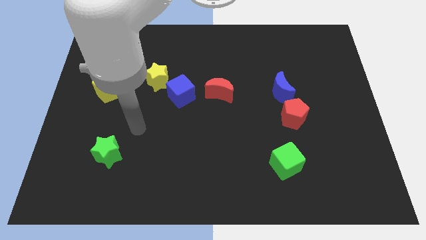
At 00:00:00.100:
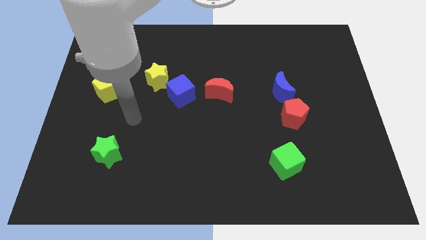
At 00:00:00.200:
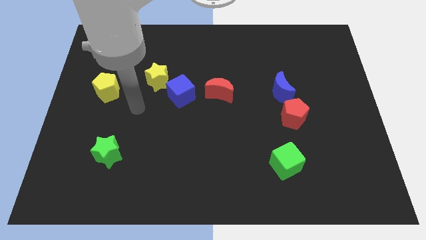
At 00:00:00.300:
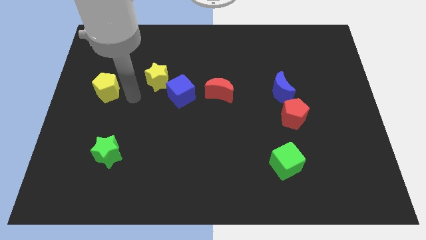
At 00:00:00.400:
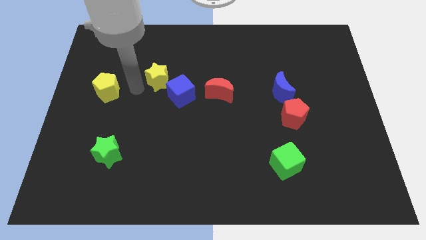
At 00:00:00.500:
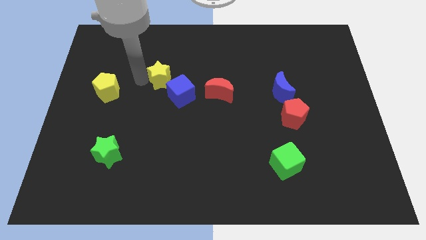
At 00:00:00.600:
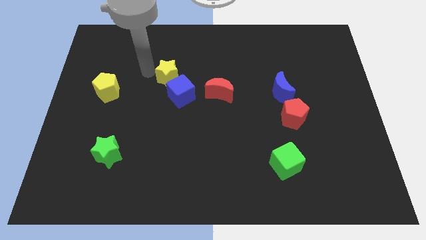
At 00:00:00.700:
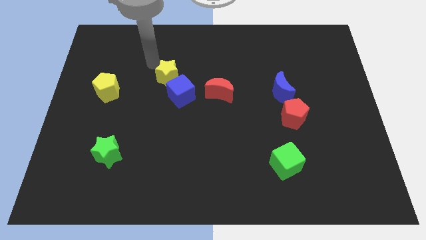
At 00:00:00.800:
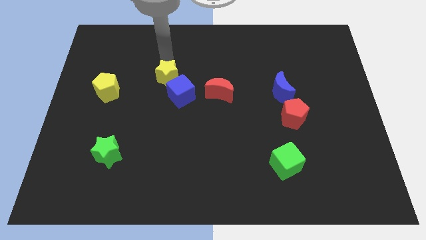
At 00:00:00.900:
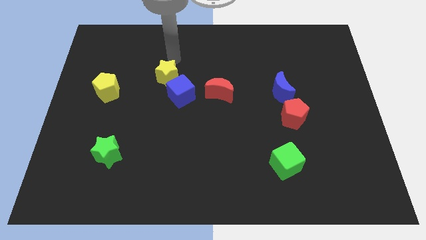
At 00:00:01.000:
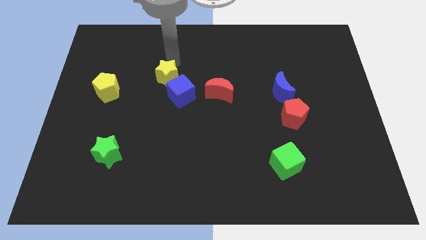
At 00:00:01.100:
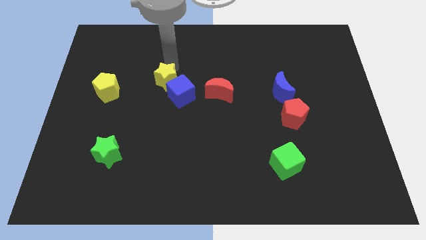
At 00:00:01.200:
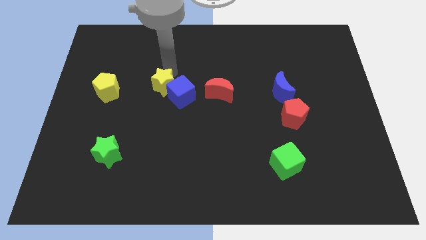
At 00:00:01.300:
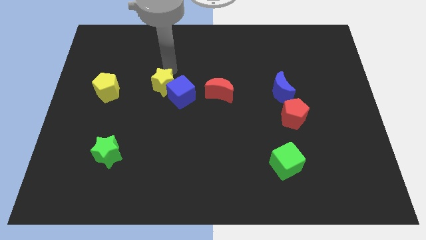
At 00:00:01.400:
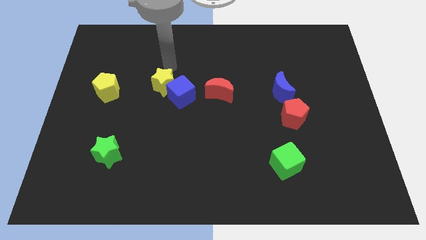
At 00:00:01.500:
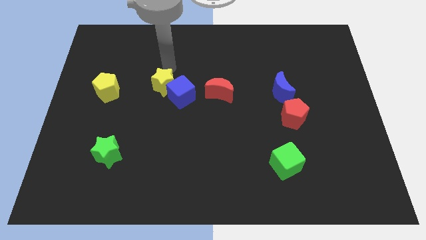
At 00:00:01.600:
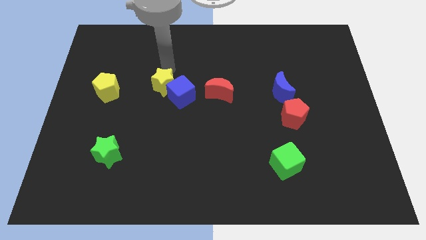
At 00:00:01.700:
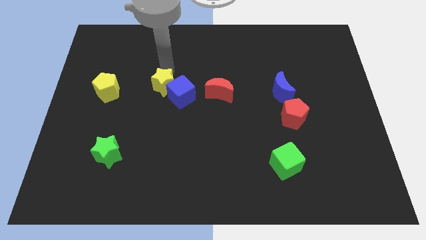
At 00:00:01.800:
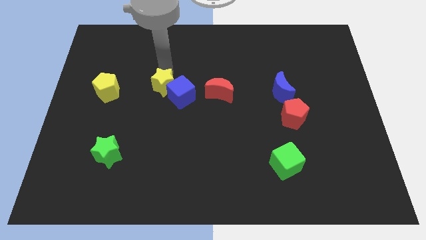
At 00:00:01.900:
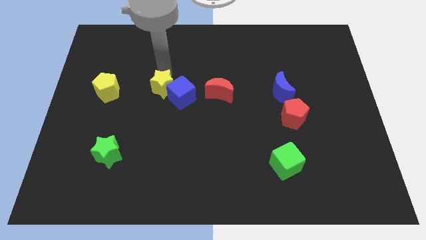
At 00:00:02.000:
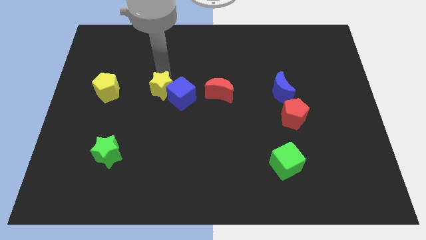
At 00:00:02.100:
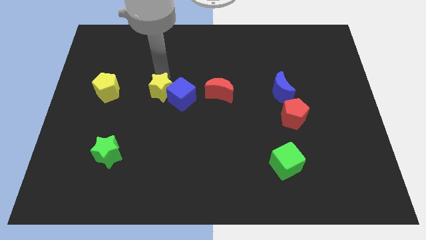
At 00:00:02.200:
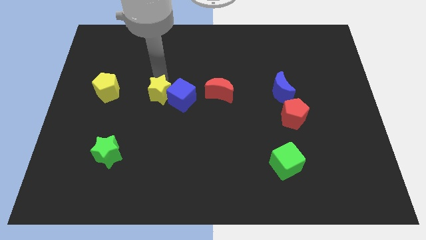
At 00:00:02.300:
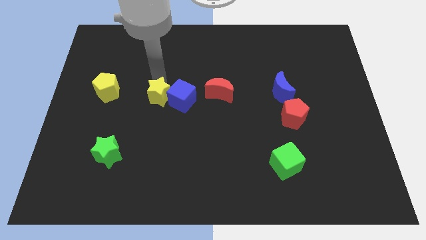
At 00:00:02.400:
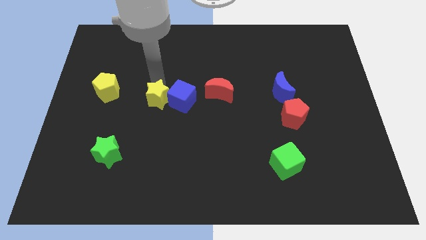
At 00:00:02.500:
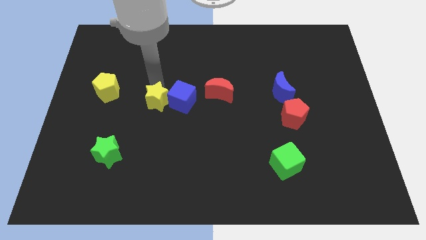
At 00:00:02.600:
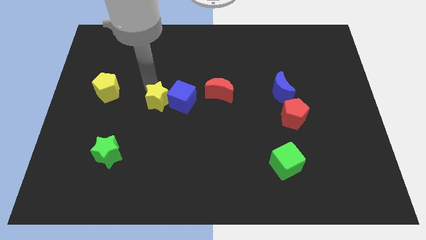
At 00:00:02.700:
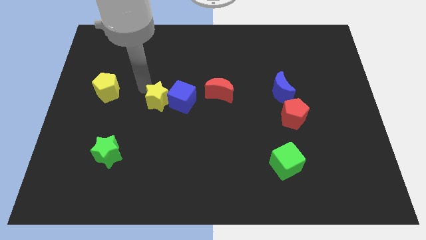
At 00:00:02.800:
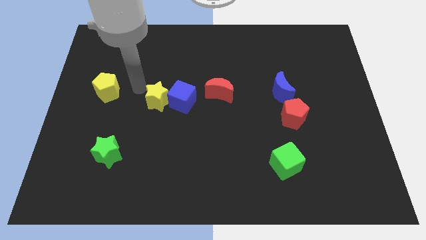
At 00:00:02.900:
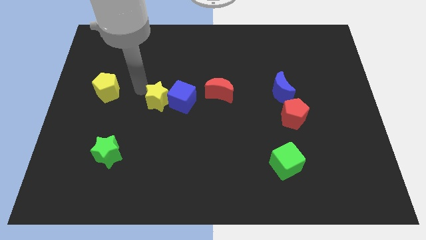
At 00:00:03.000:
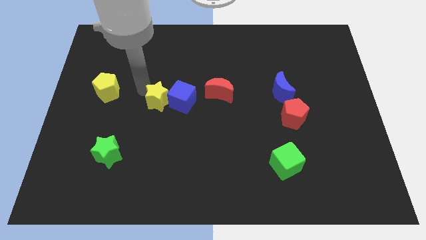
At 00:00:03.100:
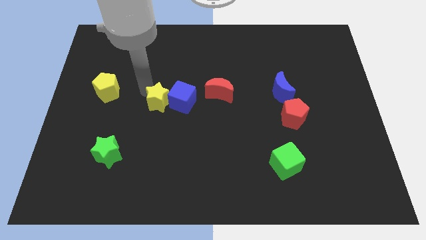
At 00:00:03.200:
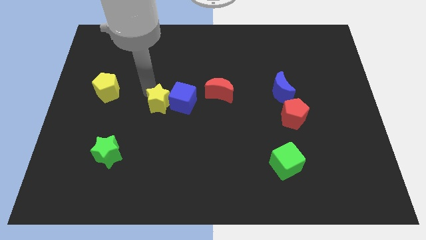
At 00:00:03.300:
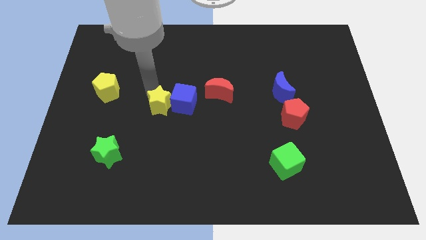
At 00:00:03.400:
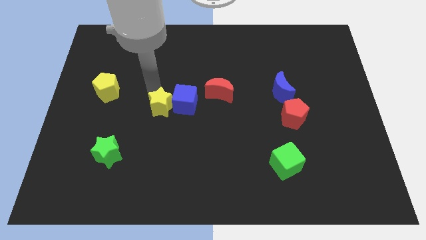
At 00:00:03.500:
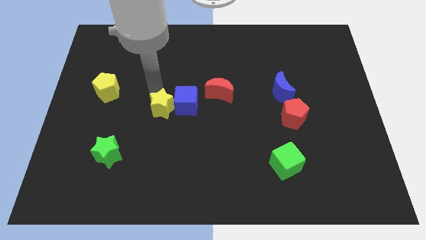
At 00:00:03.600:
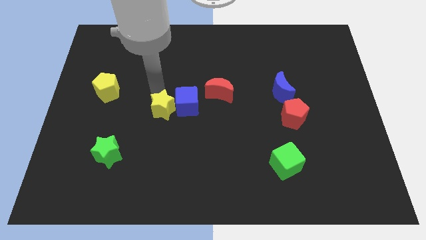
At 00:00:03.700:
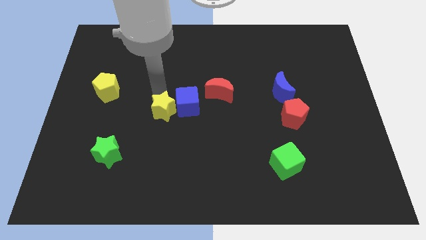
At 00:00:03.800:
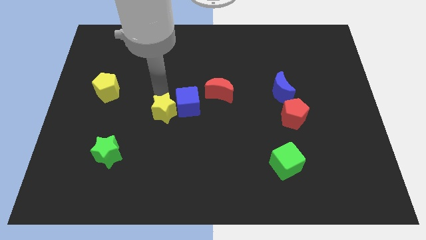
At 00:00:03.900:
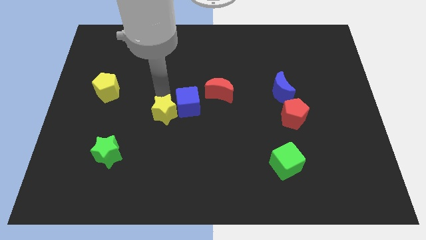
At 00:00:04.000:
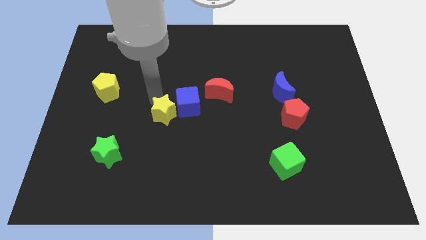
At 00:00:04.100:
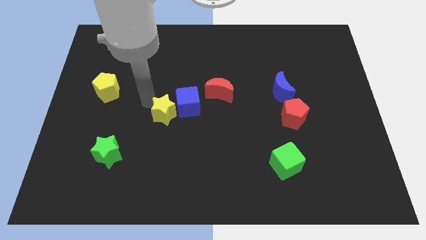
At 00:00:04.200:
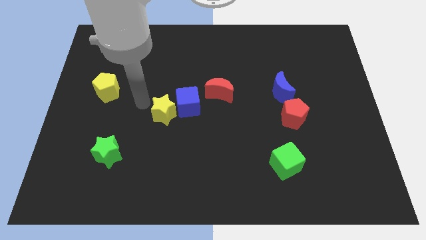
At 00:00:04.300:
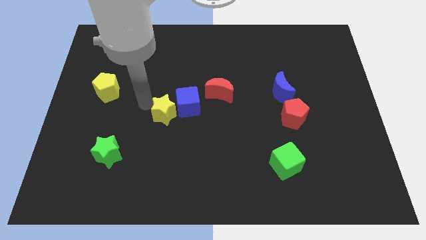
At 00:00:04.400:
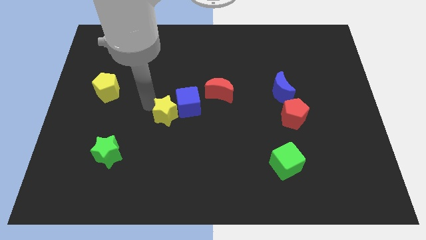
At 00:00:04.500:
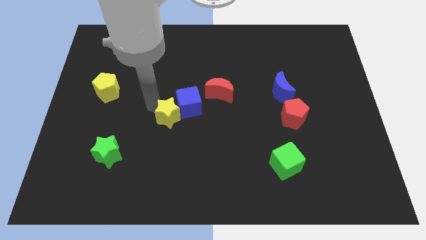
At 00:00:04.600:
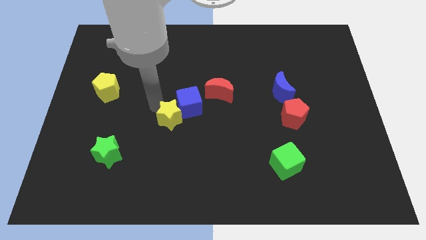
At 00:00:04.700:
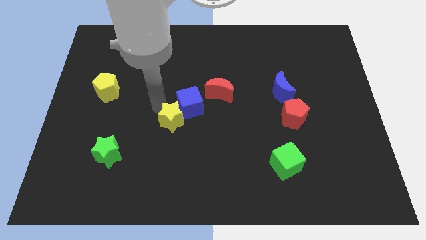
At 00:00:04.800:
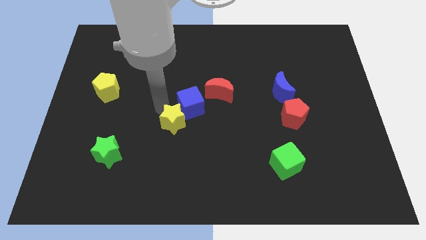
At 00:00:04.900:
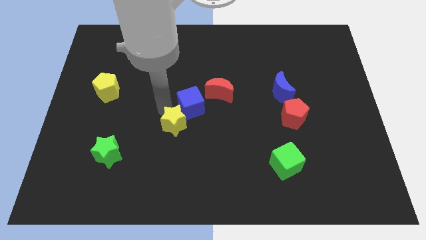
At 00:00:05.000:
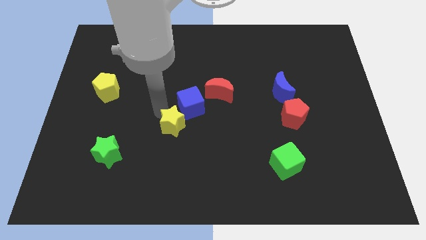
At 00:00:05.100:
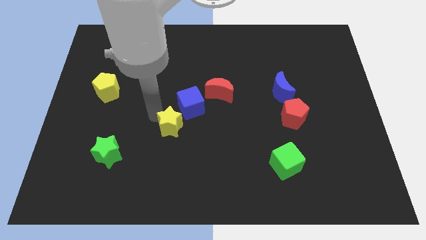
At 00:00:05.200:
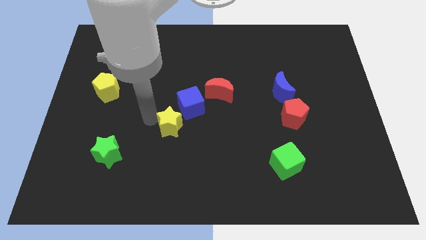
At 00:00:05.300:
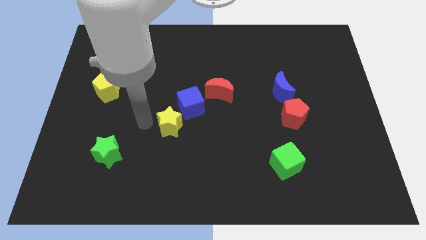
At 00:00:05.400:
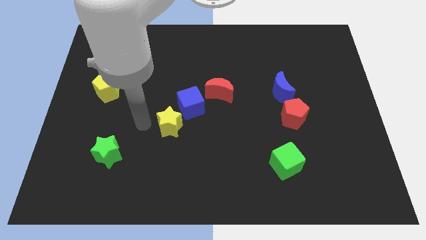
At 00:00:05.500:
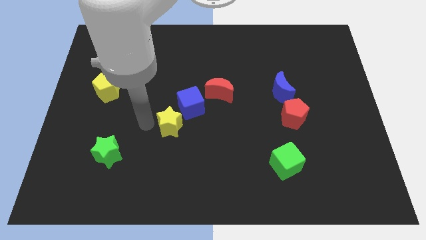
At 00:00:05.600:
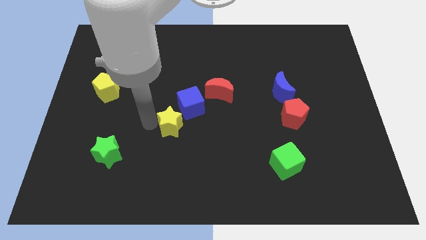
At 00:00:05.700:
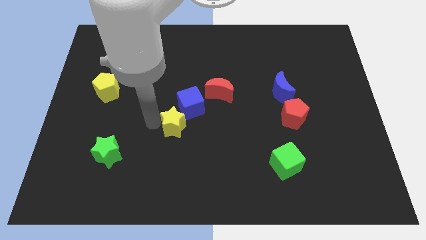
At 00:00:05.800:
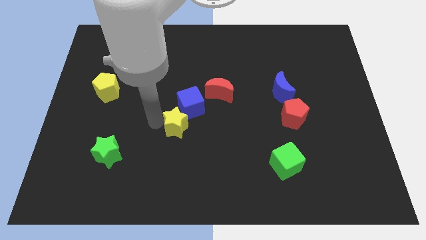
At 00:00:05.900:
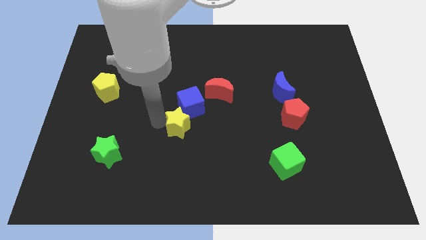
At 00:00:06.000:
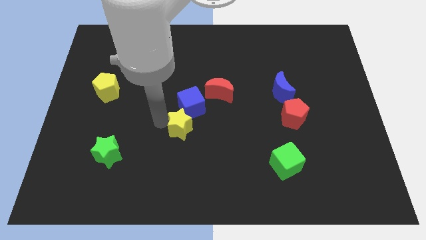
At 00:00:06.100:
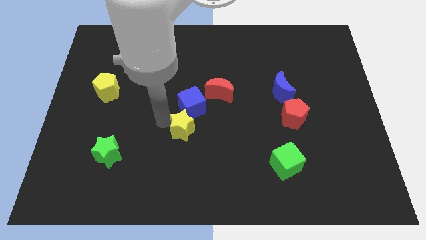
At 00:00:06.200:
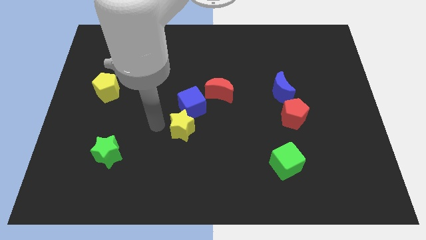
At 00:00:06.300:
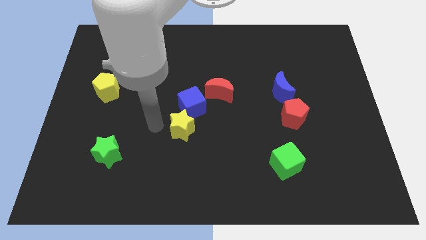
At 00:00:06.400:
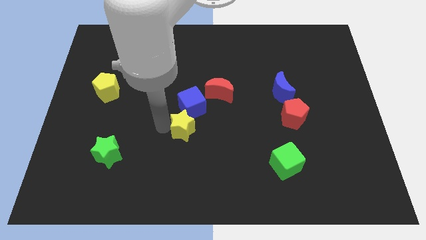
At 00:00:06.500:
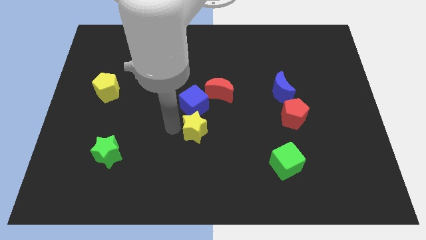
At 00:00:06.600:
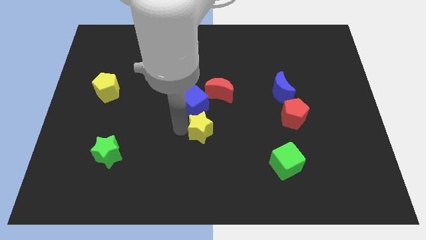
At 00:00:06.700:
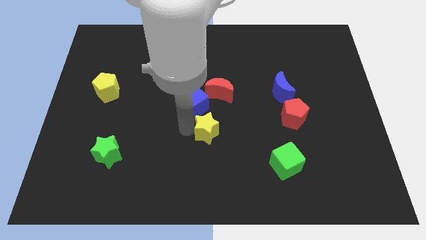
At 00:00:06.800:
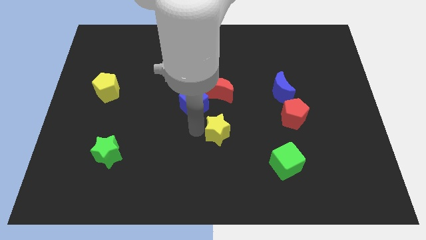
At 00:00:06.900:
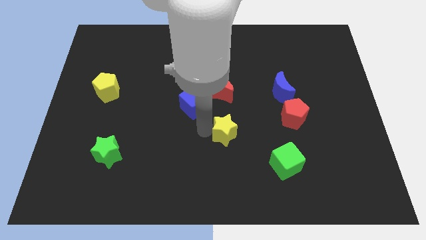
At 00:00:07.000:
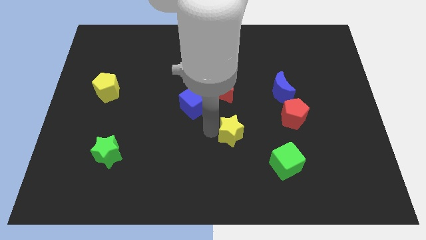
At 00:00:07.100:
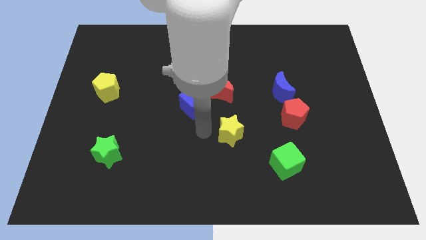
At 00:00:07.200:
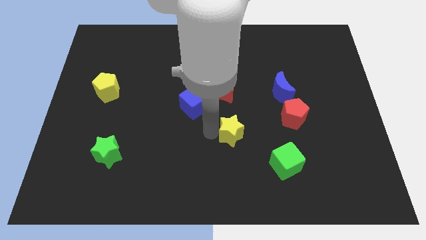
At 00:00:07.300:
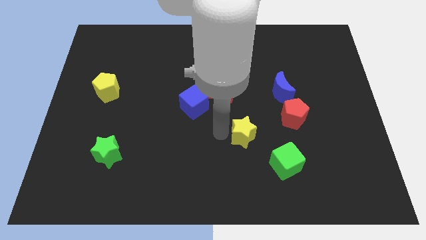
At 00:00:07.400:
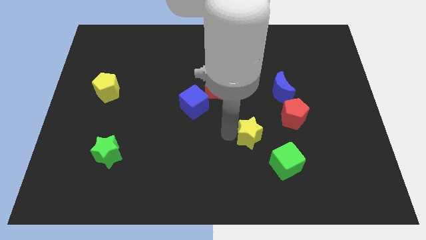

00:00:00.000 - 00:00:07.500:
push the yellow star to the bottom left side of the red pentagon
